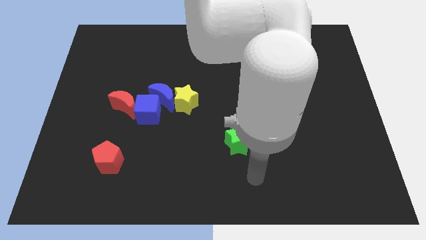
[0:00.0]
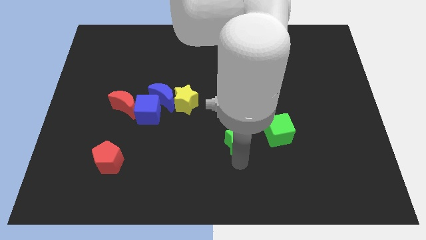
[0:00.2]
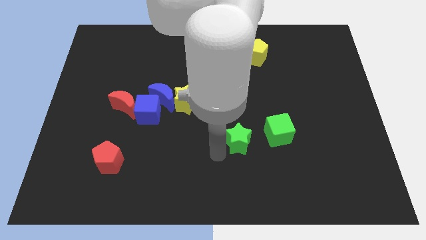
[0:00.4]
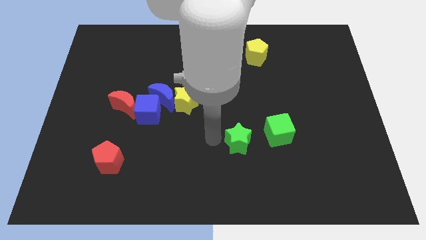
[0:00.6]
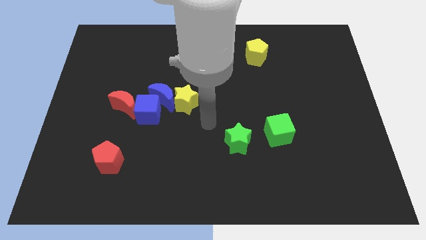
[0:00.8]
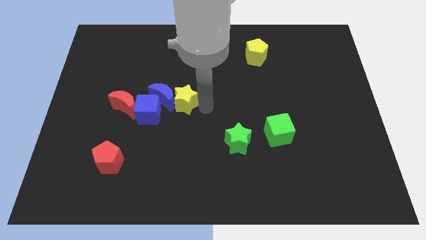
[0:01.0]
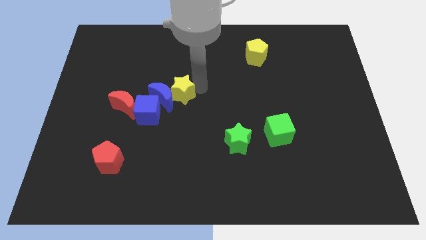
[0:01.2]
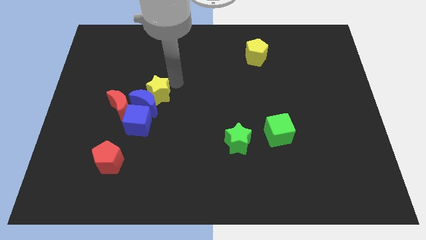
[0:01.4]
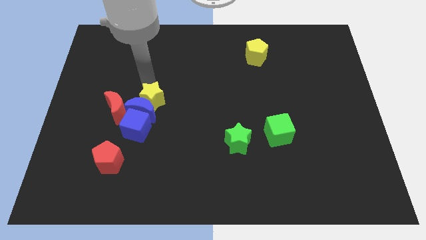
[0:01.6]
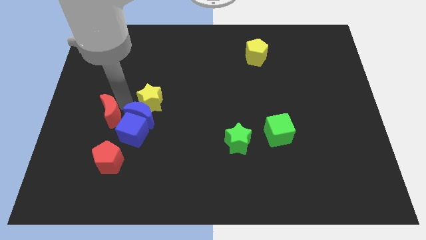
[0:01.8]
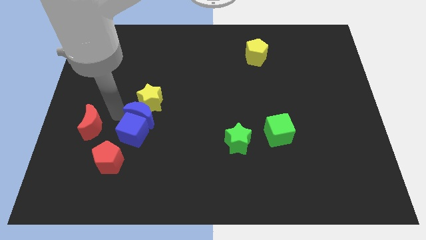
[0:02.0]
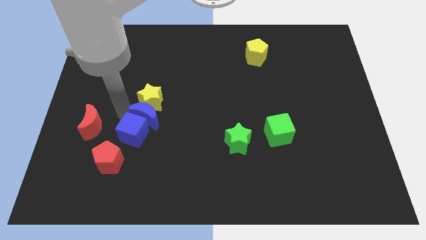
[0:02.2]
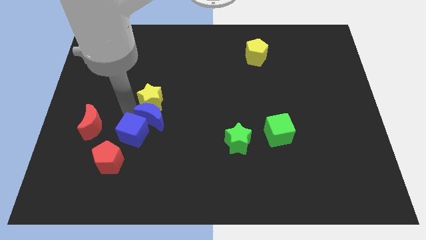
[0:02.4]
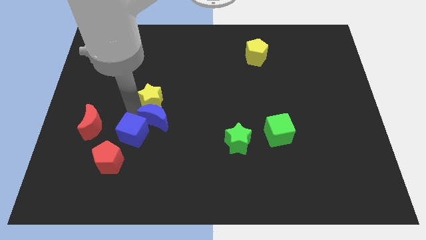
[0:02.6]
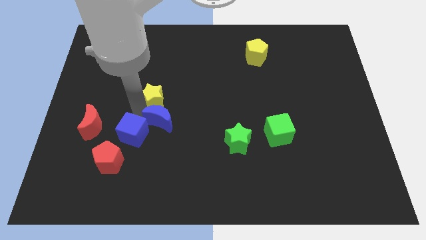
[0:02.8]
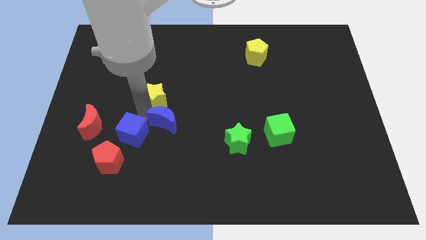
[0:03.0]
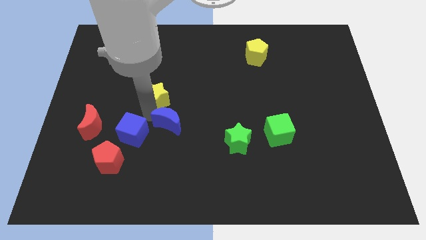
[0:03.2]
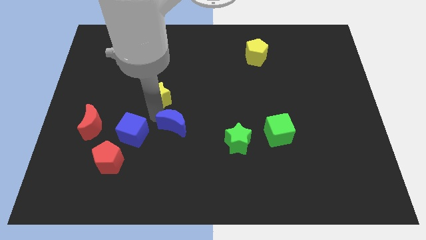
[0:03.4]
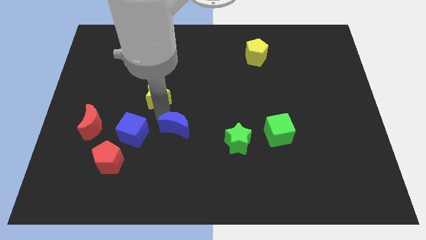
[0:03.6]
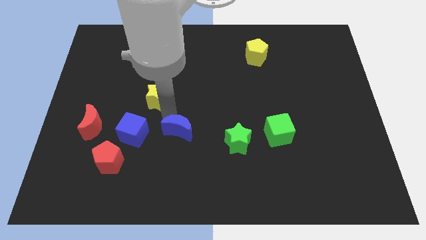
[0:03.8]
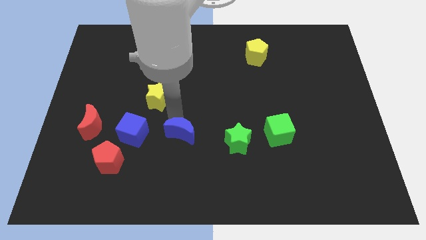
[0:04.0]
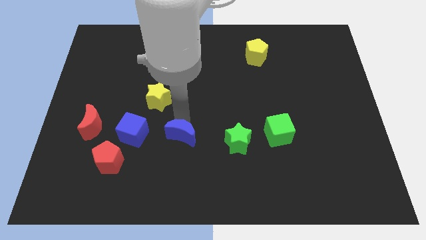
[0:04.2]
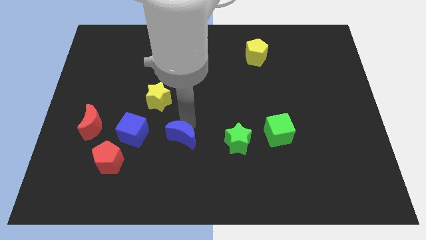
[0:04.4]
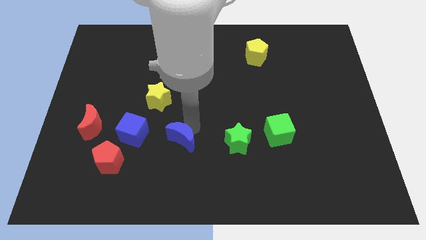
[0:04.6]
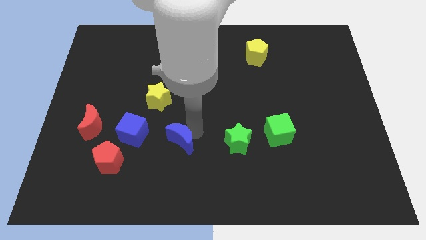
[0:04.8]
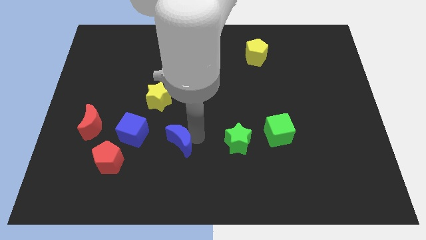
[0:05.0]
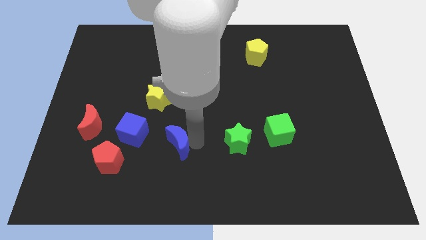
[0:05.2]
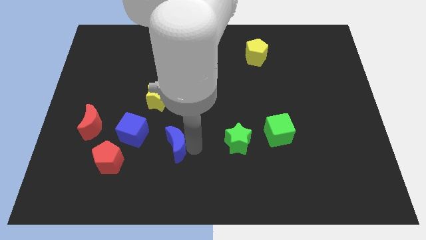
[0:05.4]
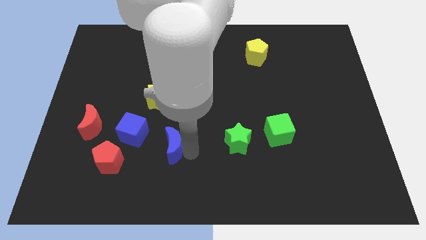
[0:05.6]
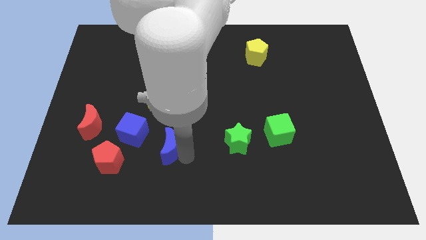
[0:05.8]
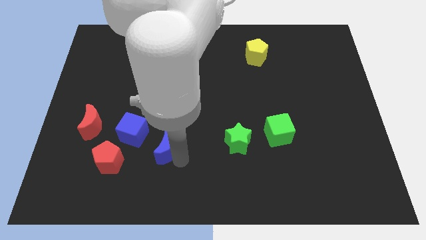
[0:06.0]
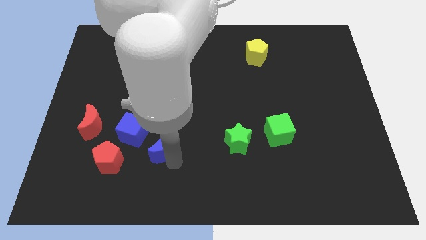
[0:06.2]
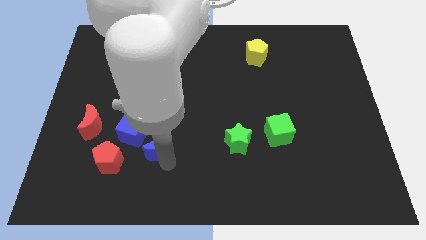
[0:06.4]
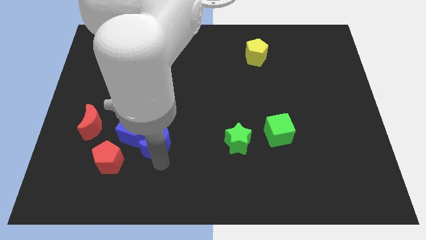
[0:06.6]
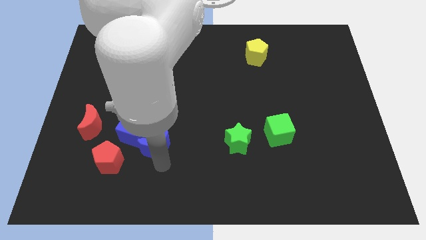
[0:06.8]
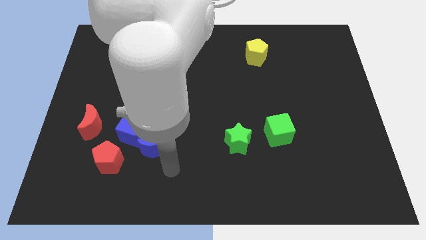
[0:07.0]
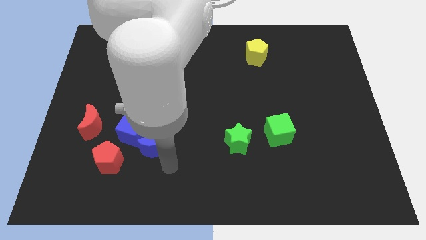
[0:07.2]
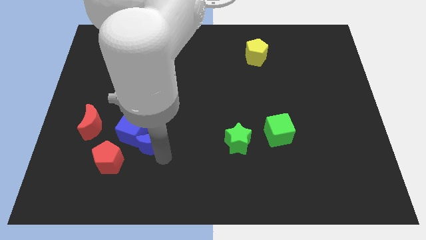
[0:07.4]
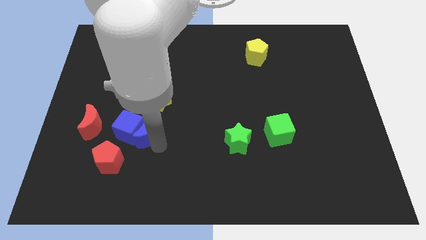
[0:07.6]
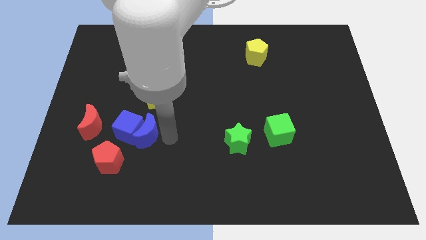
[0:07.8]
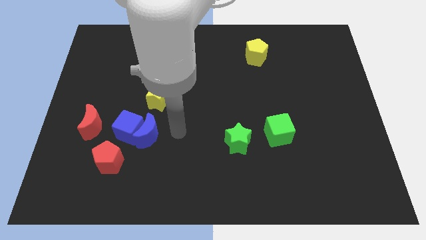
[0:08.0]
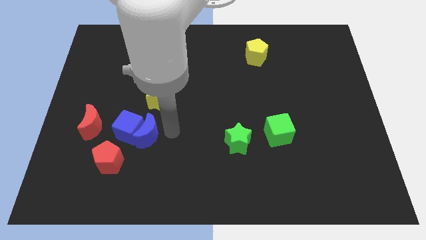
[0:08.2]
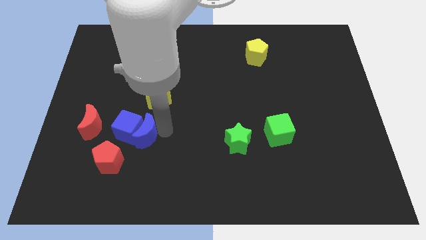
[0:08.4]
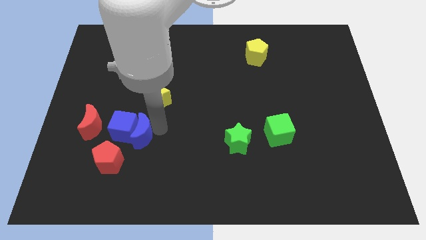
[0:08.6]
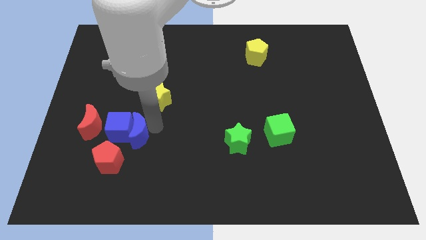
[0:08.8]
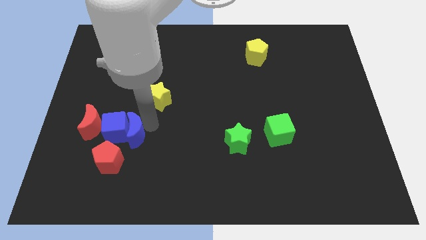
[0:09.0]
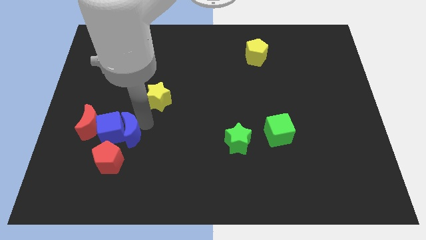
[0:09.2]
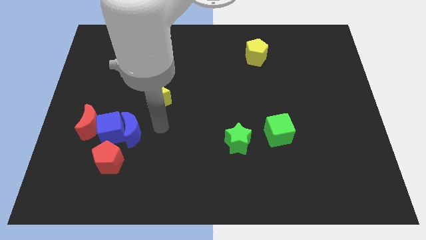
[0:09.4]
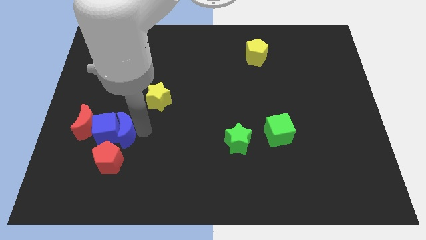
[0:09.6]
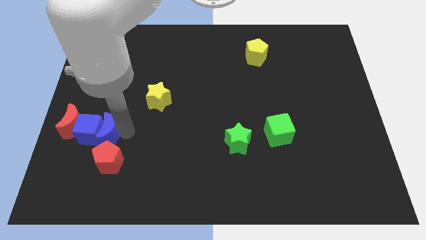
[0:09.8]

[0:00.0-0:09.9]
move the blue moon diagonally up and to the left of the red pentagon

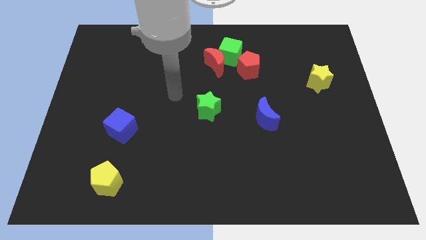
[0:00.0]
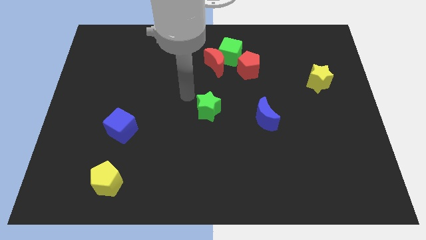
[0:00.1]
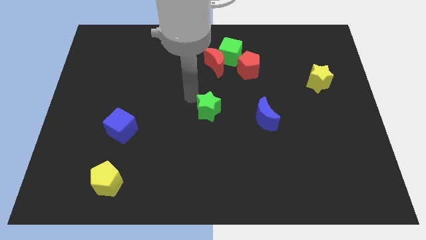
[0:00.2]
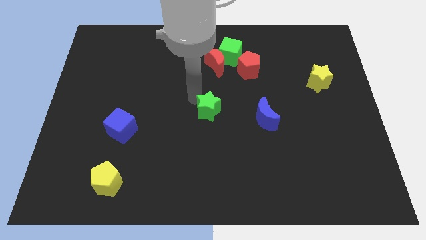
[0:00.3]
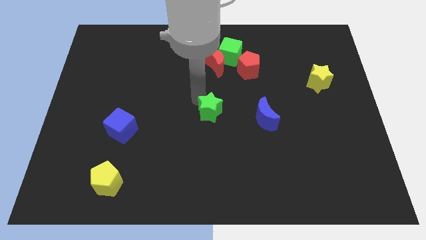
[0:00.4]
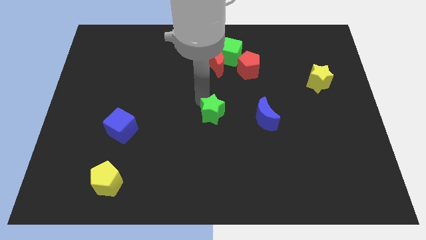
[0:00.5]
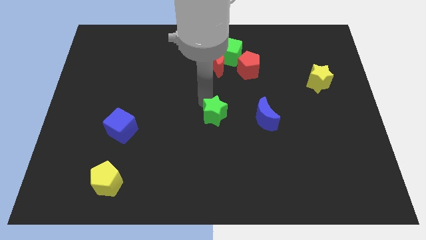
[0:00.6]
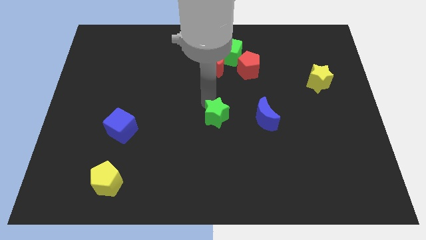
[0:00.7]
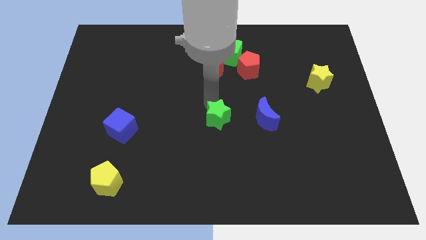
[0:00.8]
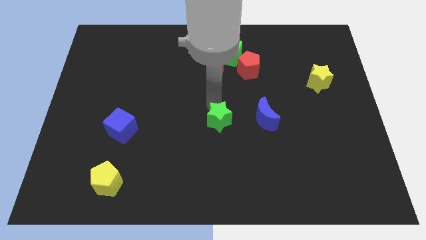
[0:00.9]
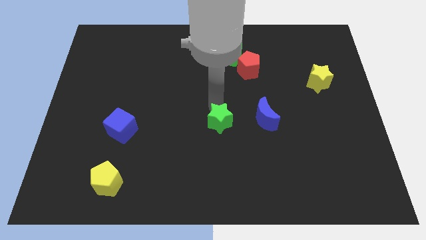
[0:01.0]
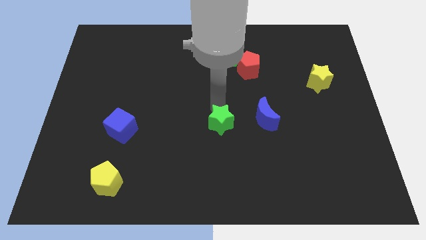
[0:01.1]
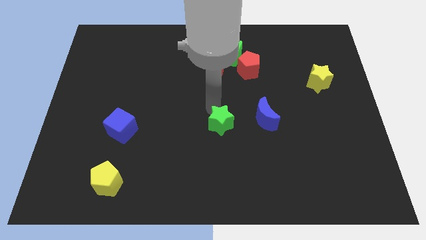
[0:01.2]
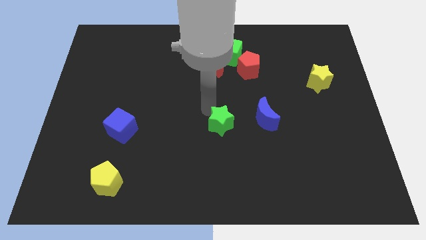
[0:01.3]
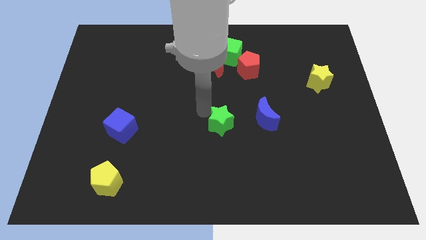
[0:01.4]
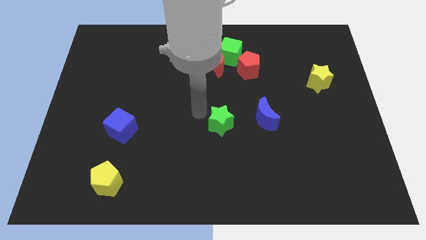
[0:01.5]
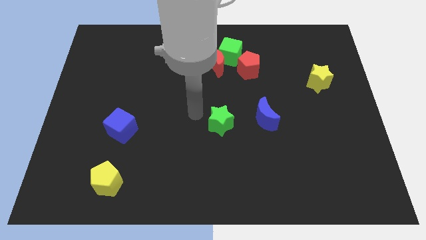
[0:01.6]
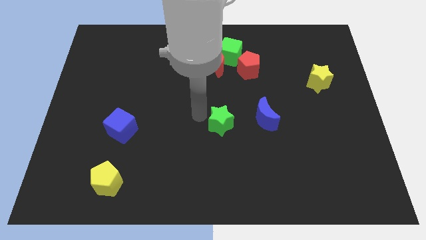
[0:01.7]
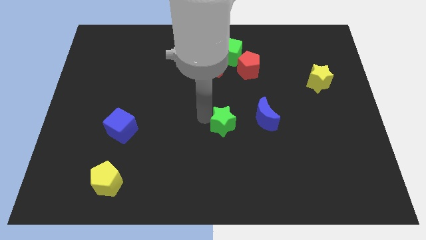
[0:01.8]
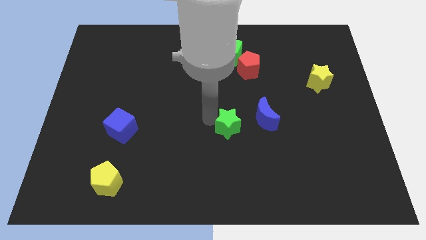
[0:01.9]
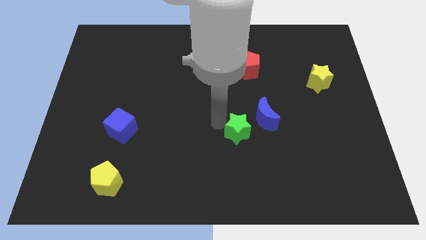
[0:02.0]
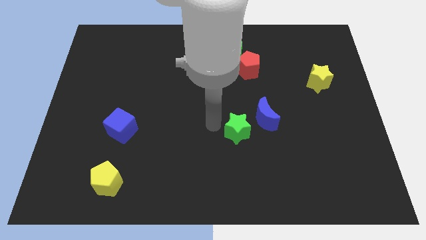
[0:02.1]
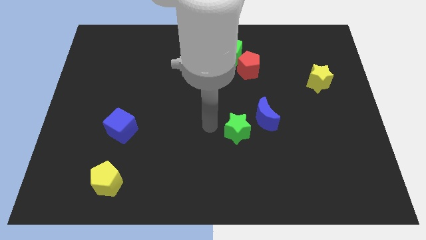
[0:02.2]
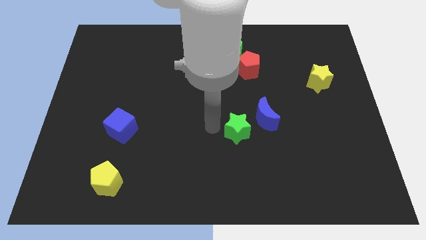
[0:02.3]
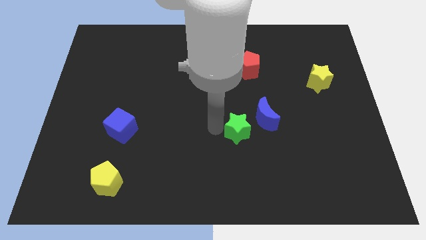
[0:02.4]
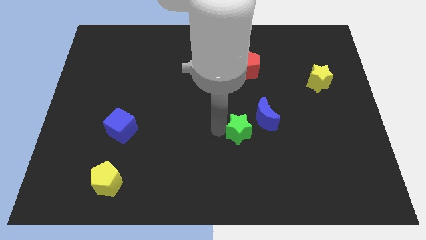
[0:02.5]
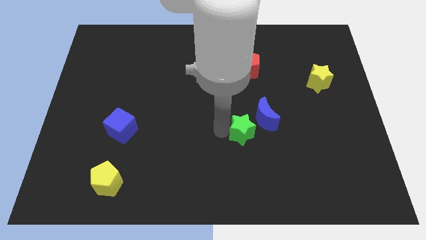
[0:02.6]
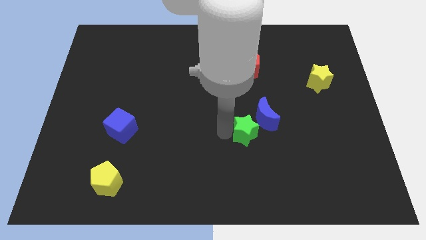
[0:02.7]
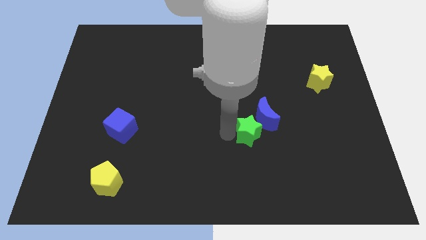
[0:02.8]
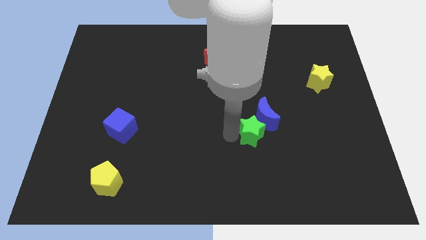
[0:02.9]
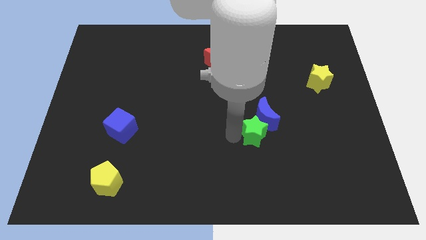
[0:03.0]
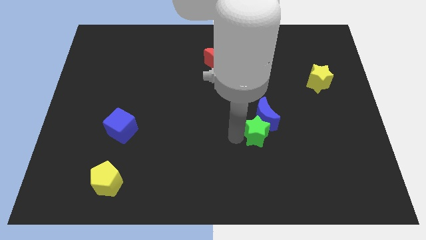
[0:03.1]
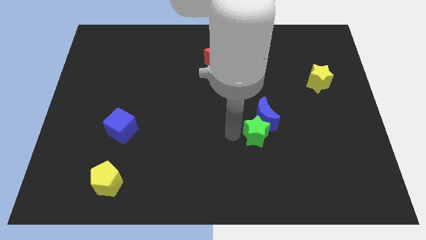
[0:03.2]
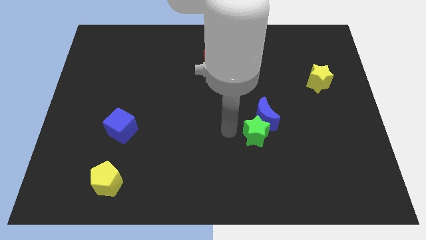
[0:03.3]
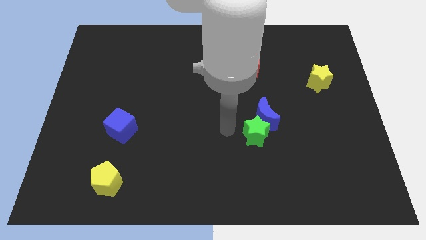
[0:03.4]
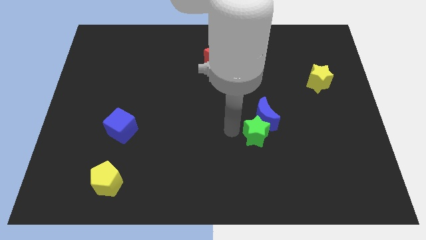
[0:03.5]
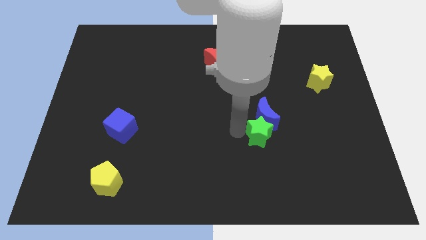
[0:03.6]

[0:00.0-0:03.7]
push the green star to the bottom right of the blue moon
